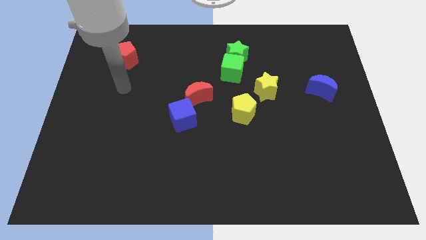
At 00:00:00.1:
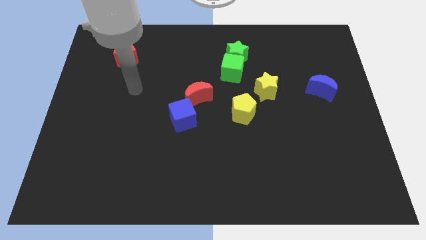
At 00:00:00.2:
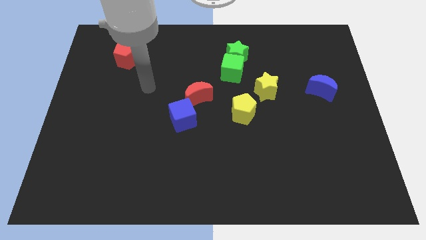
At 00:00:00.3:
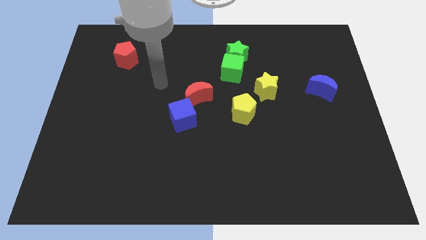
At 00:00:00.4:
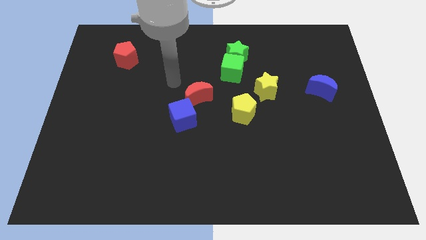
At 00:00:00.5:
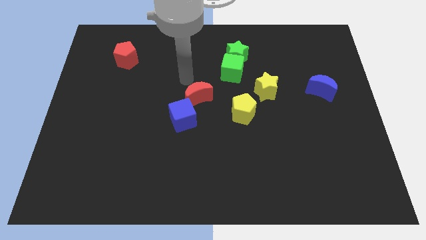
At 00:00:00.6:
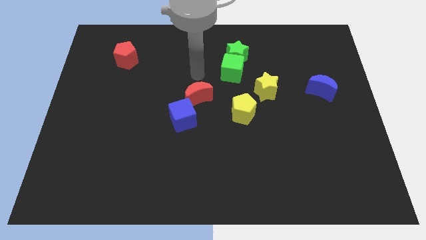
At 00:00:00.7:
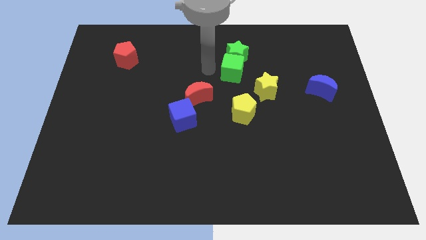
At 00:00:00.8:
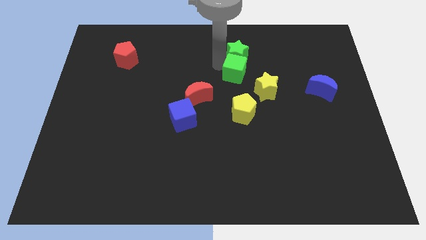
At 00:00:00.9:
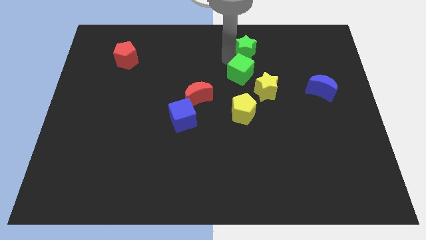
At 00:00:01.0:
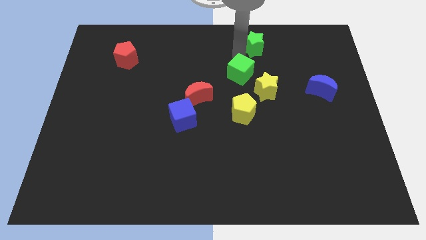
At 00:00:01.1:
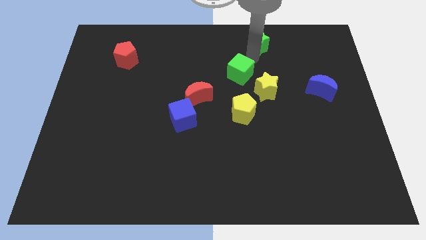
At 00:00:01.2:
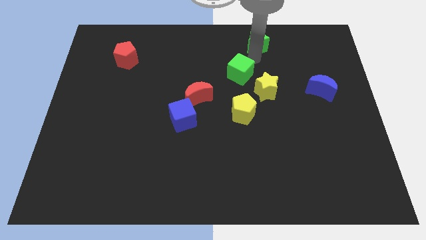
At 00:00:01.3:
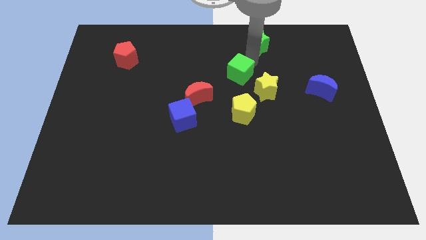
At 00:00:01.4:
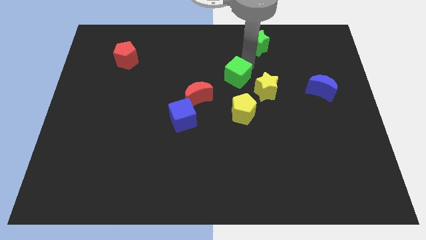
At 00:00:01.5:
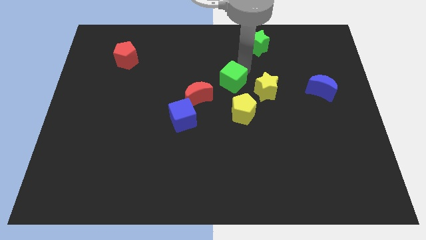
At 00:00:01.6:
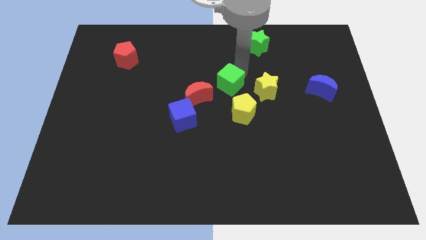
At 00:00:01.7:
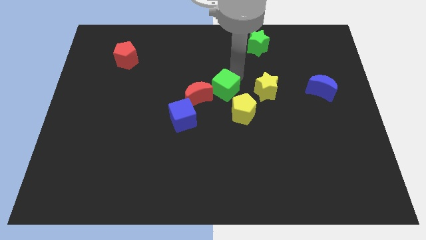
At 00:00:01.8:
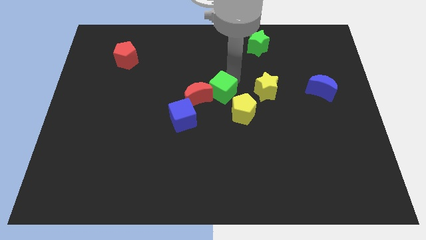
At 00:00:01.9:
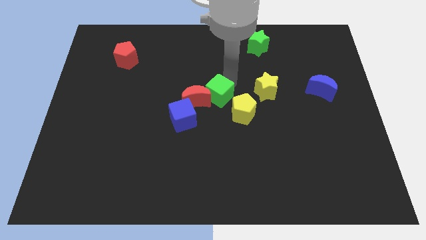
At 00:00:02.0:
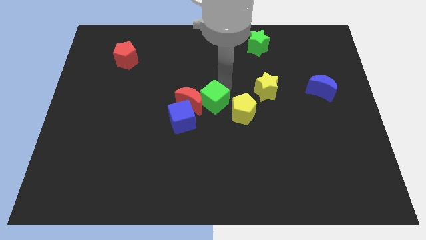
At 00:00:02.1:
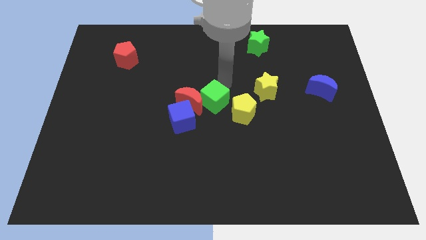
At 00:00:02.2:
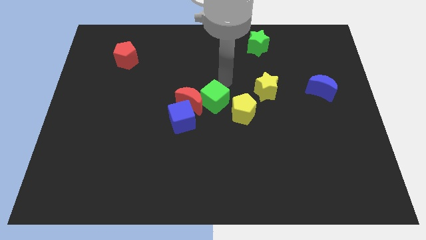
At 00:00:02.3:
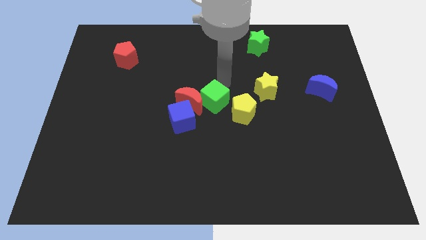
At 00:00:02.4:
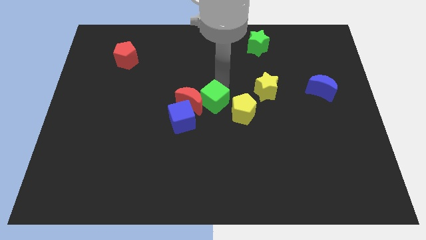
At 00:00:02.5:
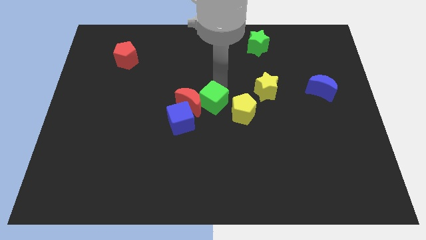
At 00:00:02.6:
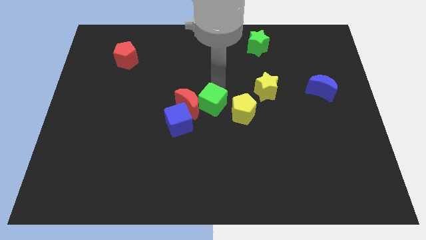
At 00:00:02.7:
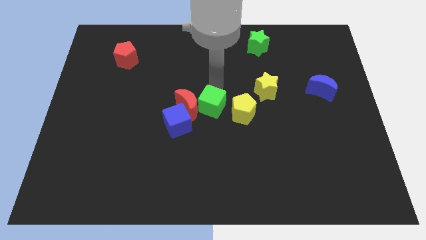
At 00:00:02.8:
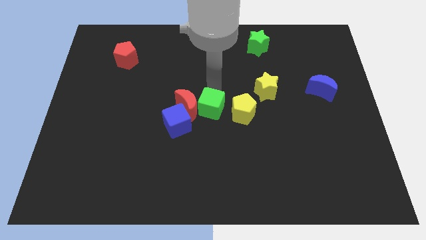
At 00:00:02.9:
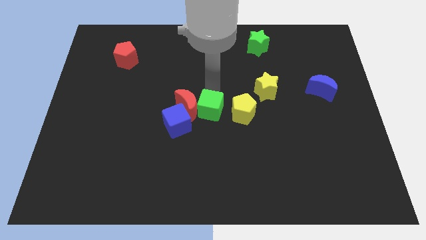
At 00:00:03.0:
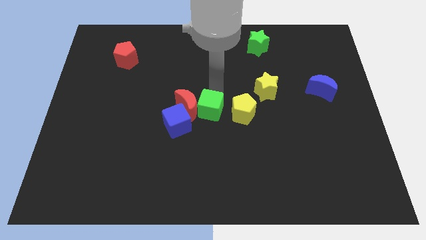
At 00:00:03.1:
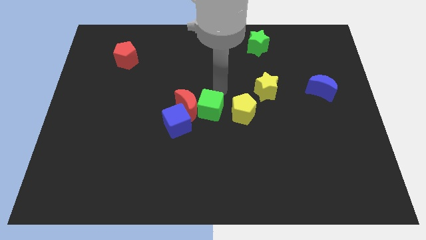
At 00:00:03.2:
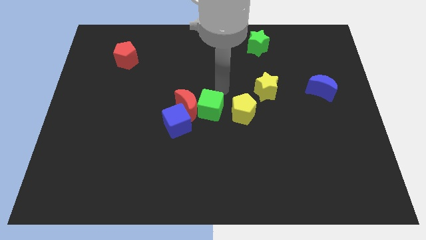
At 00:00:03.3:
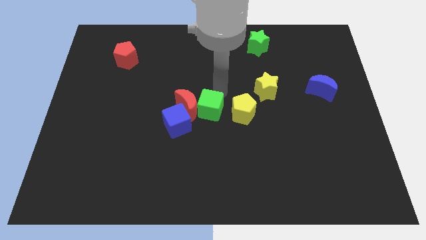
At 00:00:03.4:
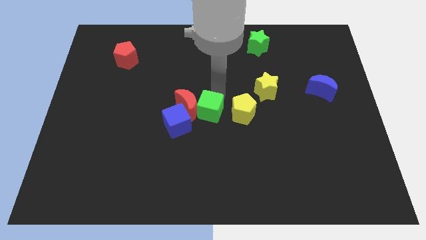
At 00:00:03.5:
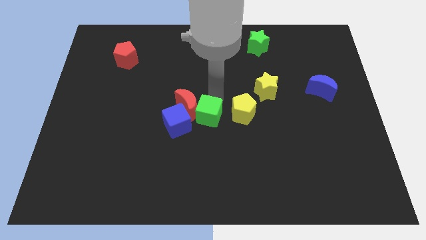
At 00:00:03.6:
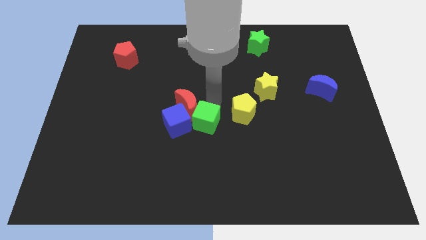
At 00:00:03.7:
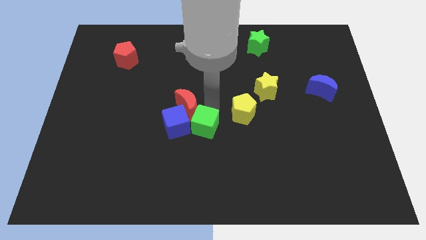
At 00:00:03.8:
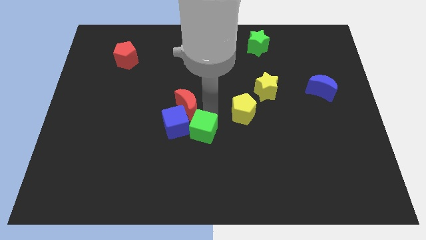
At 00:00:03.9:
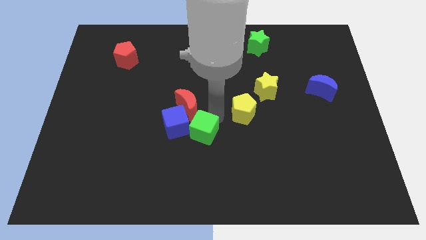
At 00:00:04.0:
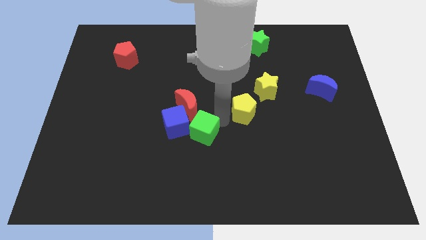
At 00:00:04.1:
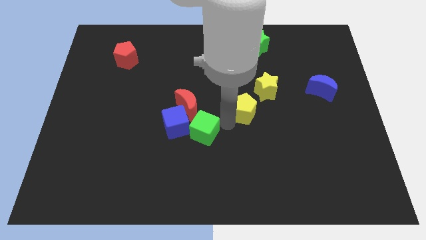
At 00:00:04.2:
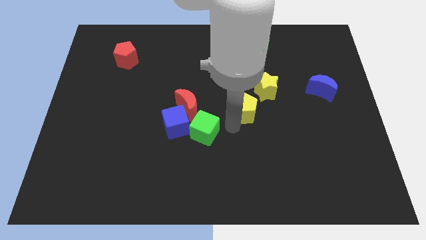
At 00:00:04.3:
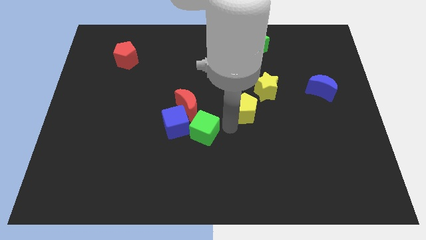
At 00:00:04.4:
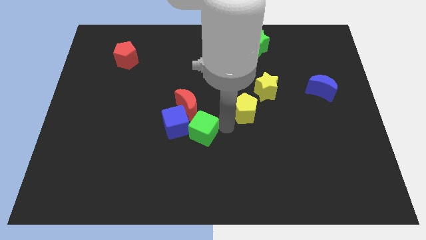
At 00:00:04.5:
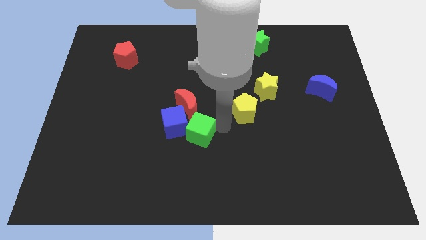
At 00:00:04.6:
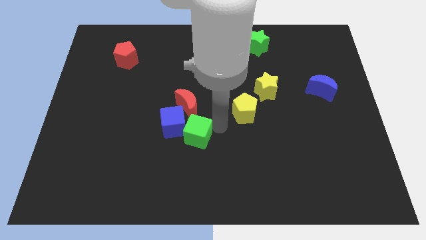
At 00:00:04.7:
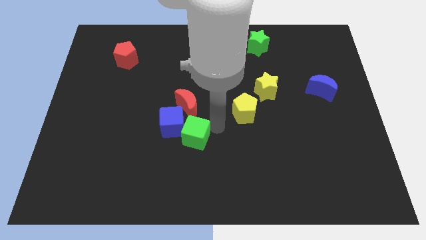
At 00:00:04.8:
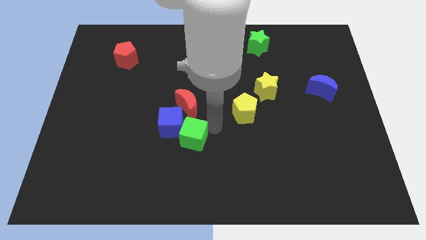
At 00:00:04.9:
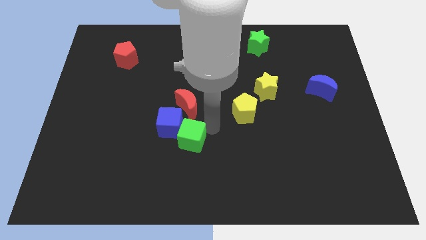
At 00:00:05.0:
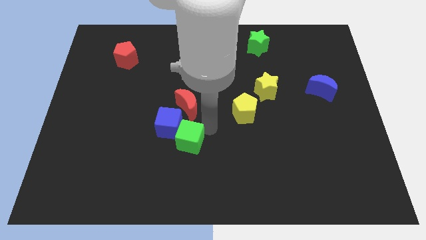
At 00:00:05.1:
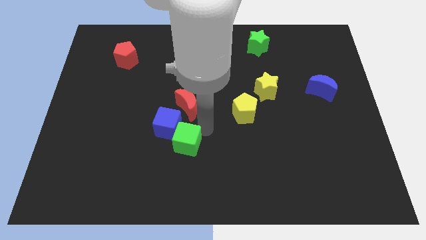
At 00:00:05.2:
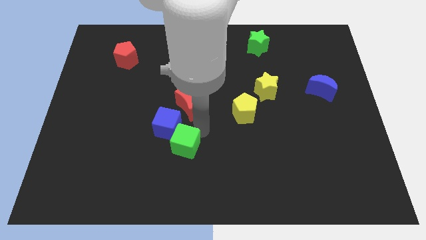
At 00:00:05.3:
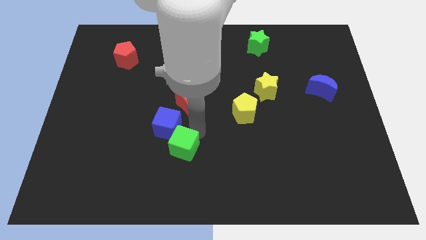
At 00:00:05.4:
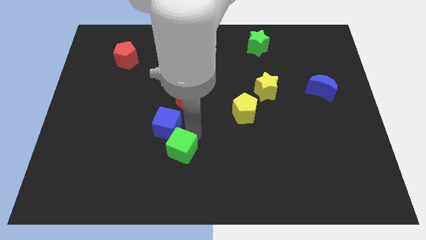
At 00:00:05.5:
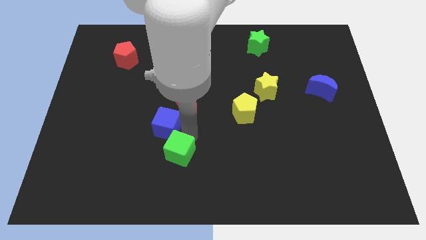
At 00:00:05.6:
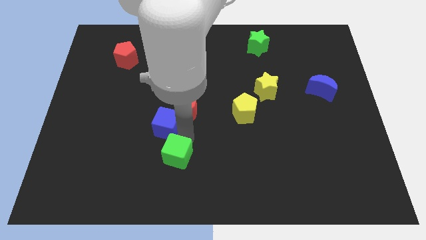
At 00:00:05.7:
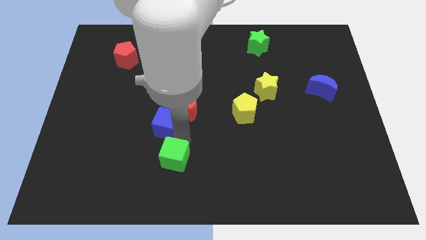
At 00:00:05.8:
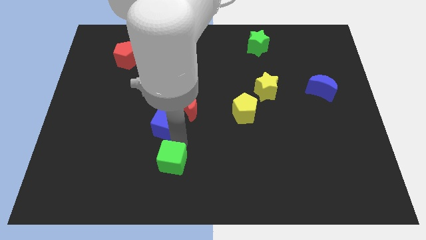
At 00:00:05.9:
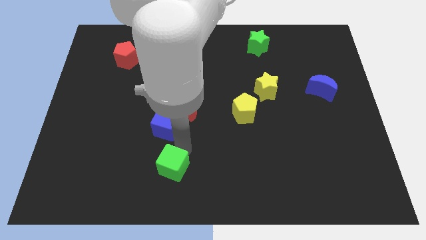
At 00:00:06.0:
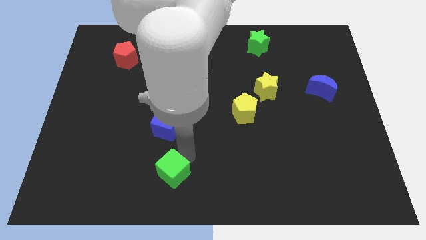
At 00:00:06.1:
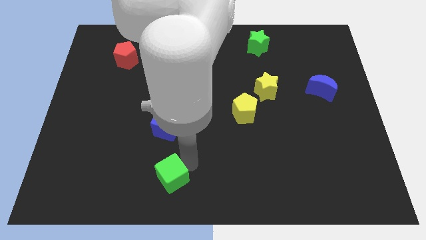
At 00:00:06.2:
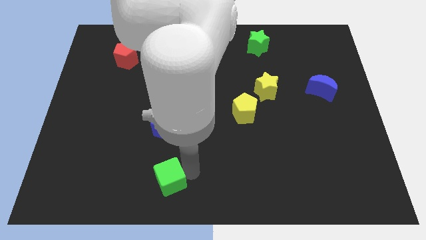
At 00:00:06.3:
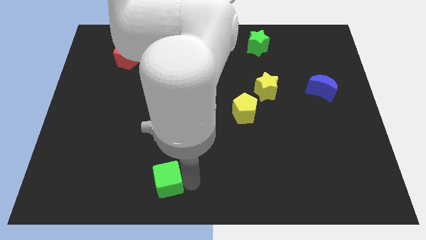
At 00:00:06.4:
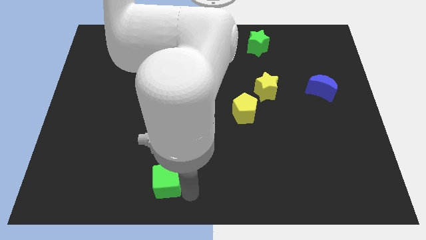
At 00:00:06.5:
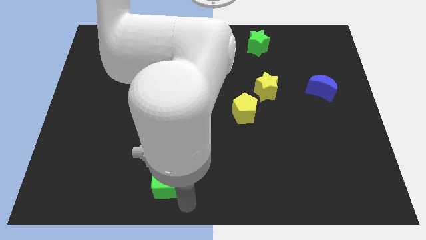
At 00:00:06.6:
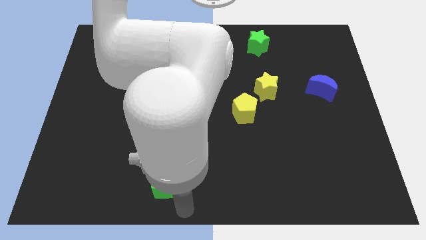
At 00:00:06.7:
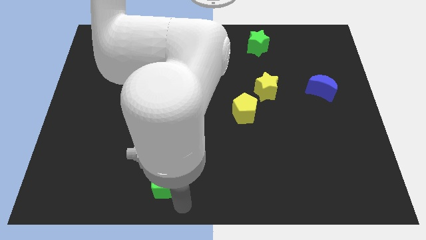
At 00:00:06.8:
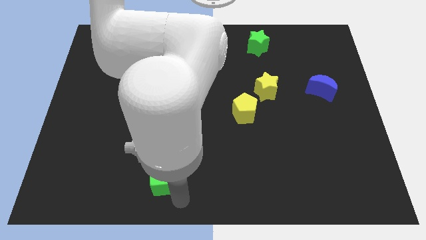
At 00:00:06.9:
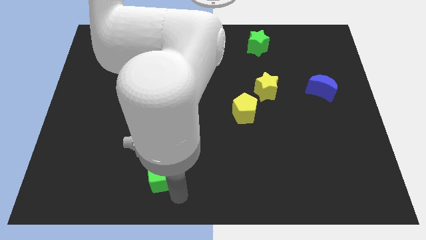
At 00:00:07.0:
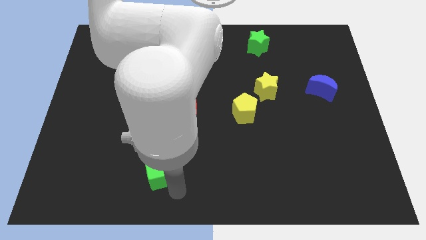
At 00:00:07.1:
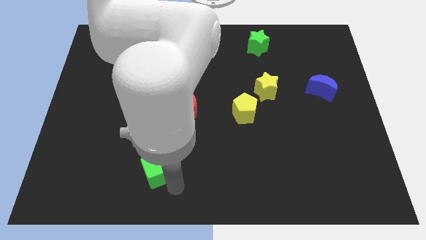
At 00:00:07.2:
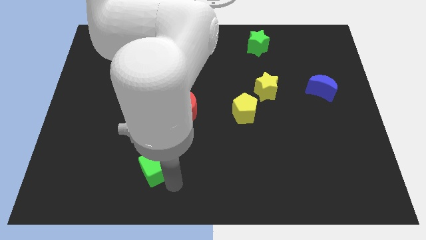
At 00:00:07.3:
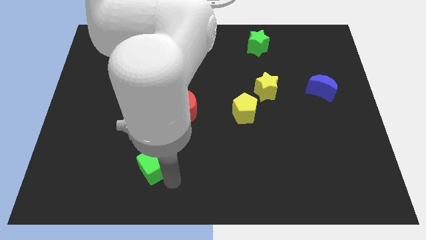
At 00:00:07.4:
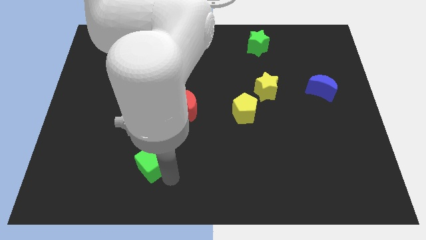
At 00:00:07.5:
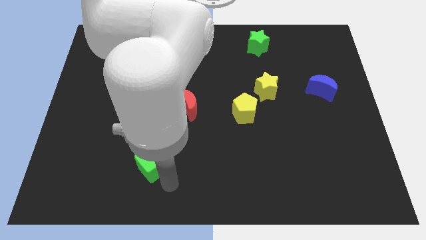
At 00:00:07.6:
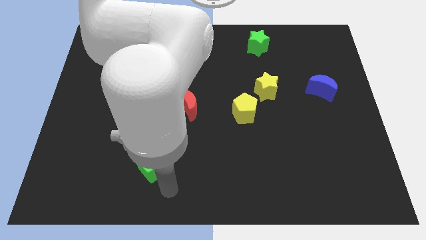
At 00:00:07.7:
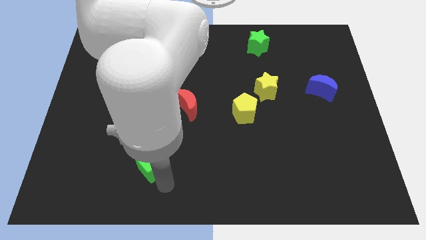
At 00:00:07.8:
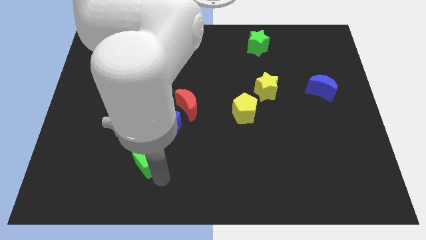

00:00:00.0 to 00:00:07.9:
put the green cube to the bottom left of the blue cube
